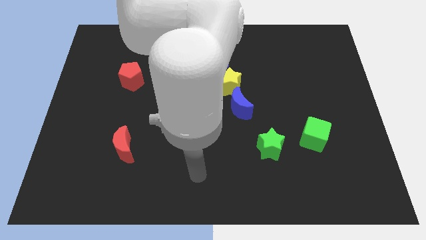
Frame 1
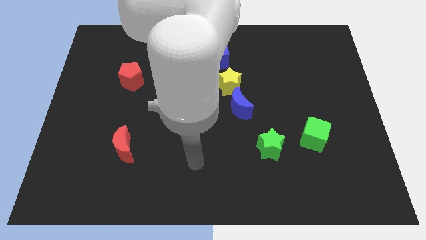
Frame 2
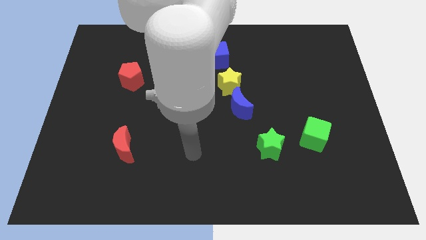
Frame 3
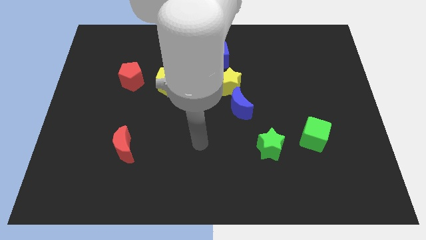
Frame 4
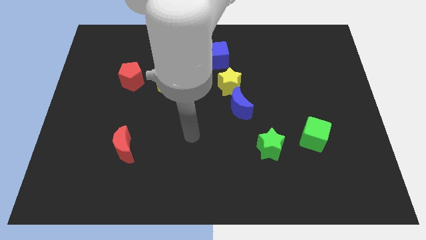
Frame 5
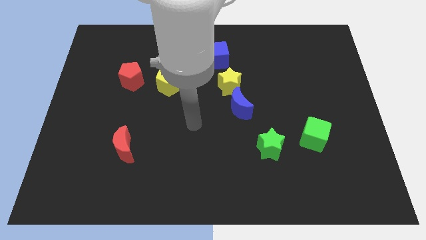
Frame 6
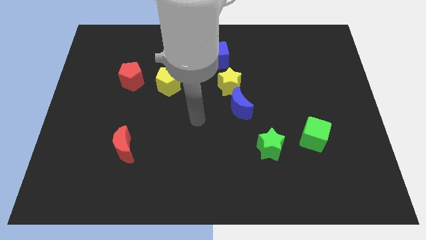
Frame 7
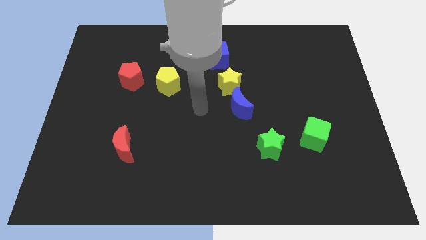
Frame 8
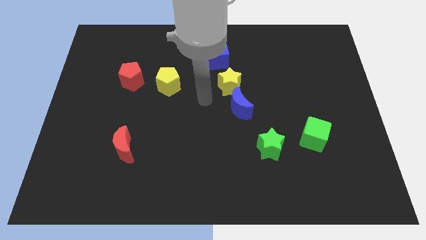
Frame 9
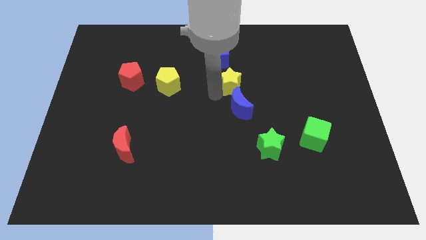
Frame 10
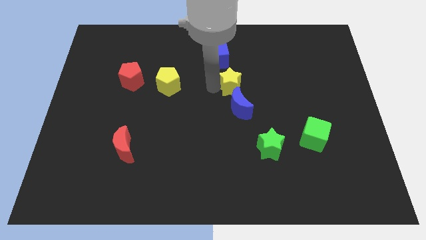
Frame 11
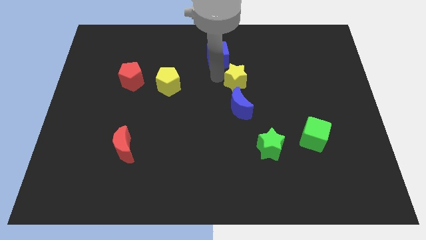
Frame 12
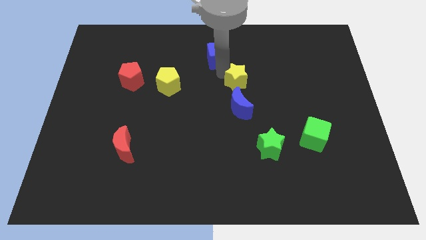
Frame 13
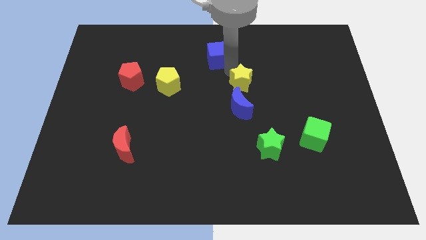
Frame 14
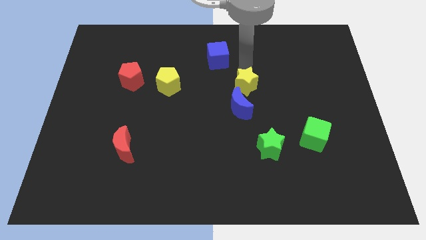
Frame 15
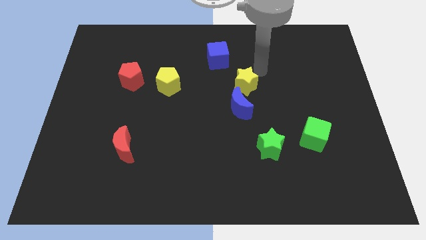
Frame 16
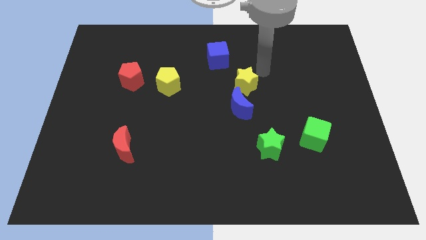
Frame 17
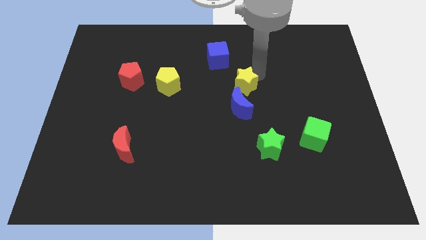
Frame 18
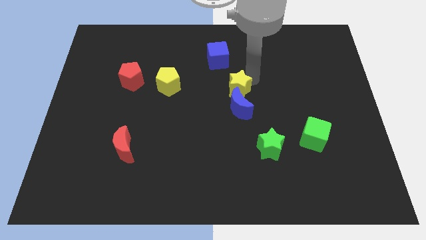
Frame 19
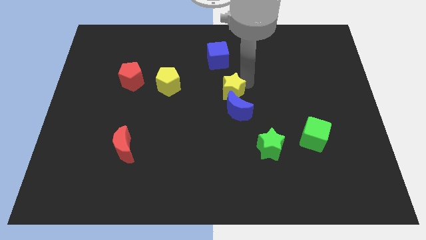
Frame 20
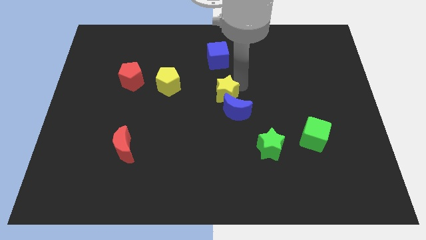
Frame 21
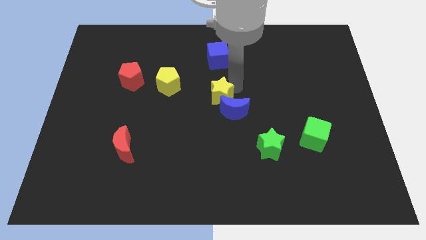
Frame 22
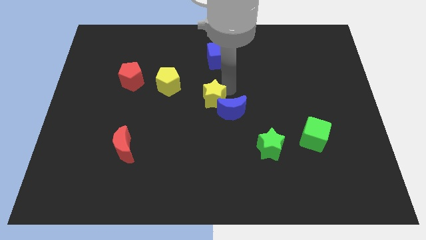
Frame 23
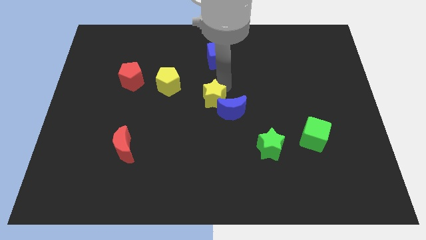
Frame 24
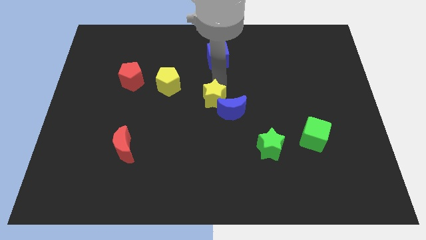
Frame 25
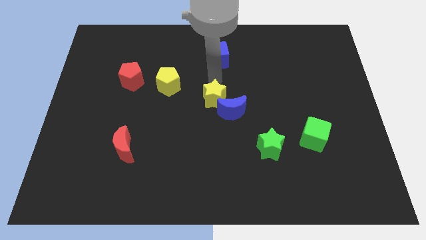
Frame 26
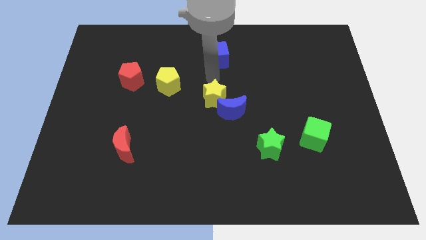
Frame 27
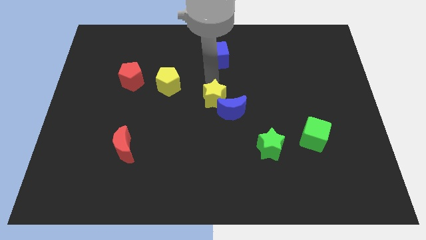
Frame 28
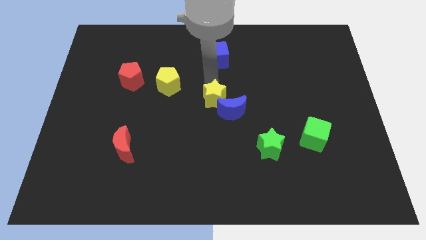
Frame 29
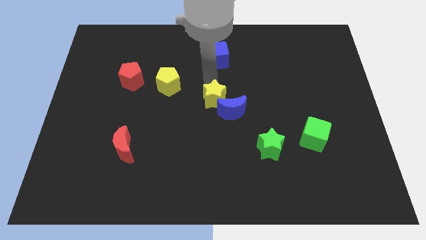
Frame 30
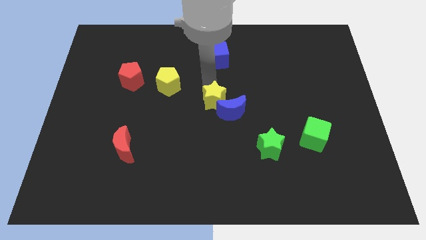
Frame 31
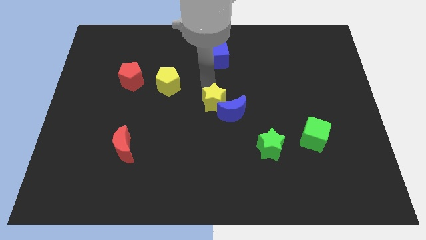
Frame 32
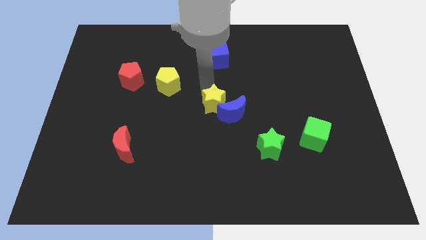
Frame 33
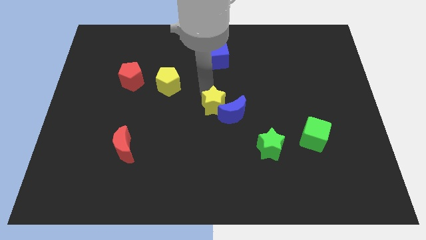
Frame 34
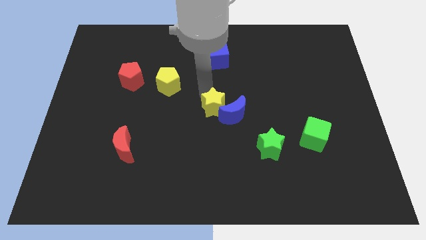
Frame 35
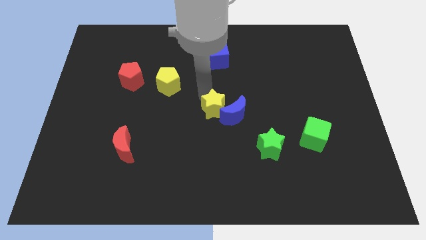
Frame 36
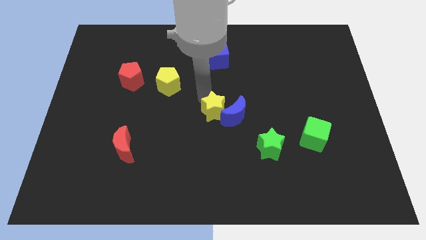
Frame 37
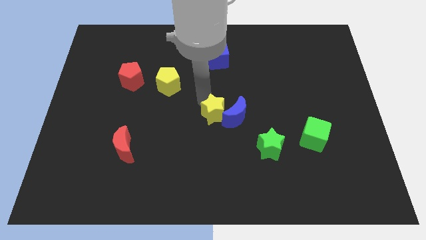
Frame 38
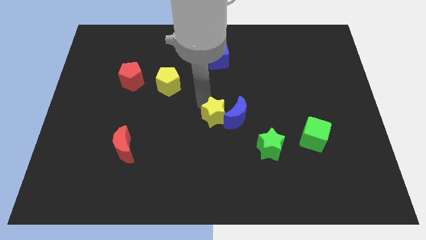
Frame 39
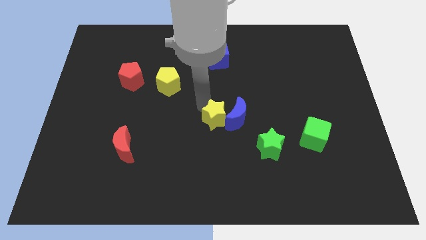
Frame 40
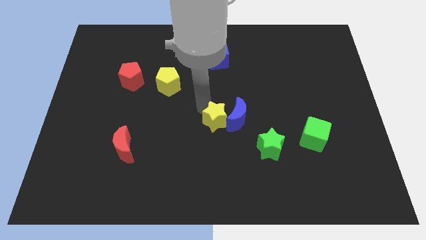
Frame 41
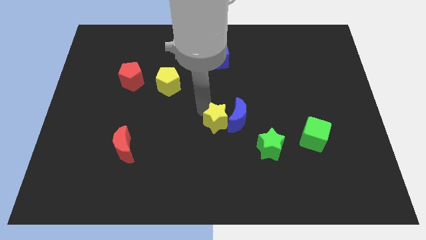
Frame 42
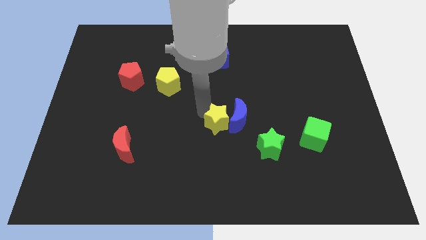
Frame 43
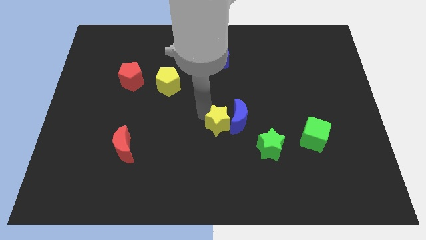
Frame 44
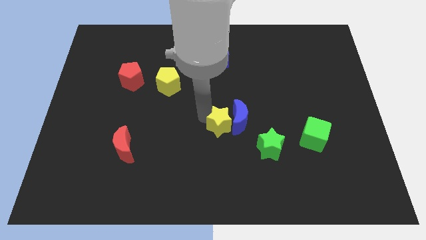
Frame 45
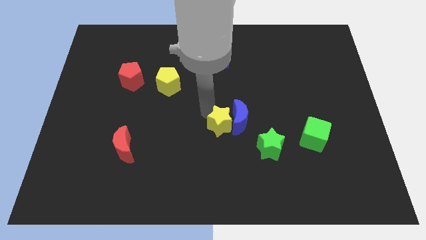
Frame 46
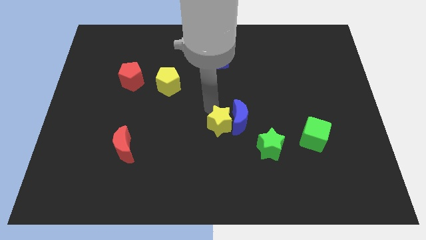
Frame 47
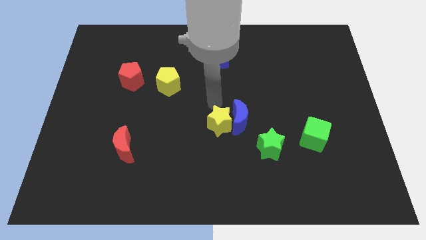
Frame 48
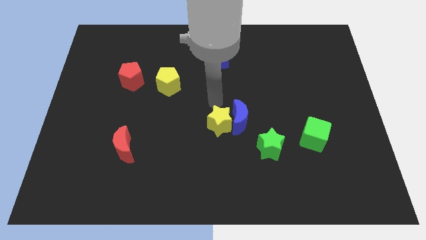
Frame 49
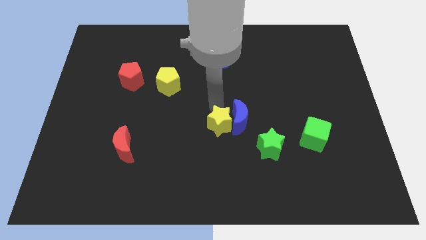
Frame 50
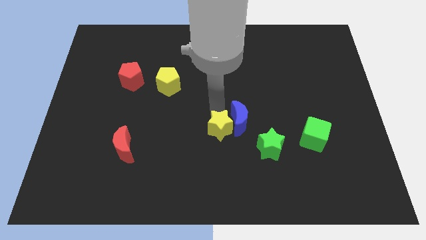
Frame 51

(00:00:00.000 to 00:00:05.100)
slide the yellow star to the left of the green star

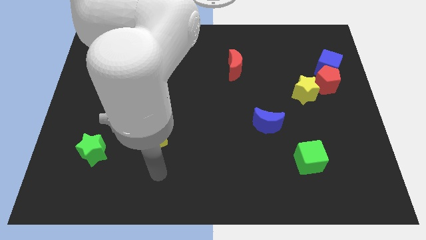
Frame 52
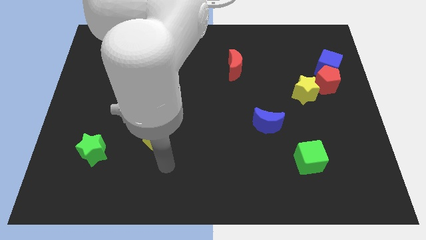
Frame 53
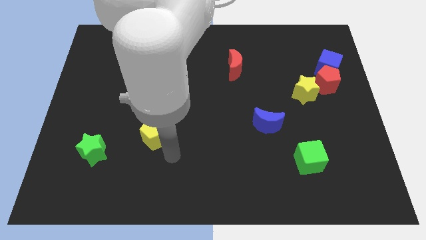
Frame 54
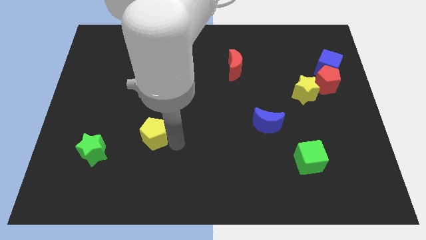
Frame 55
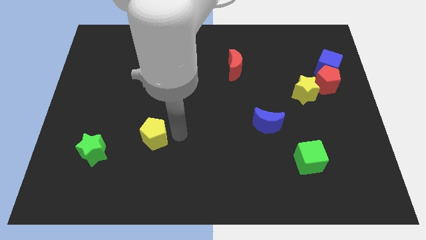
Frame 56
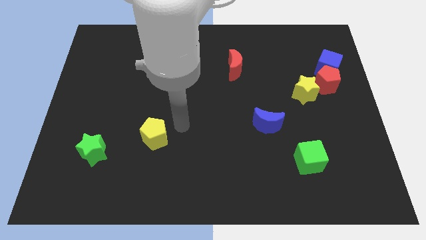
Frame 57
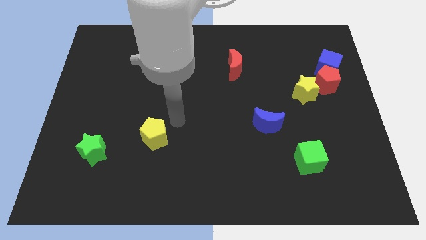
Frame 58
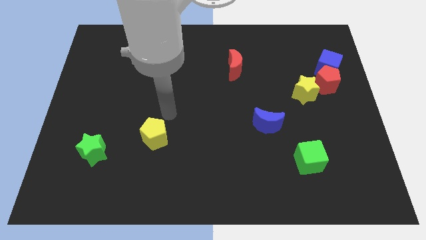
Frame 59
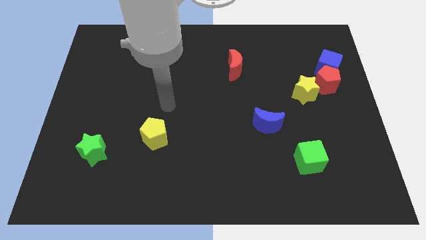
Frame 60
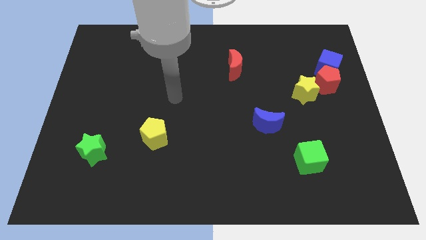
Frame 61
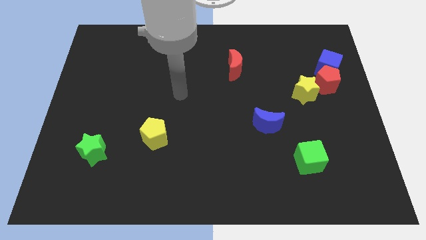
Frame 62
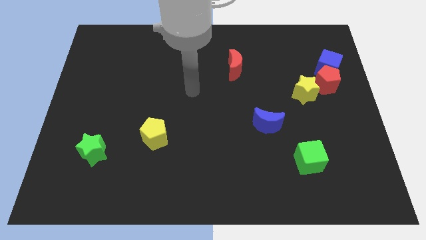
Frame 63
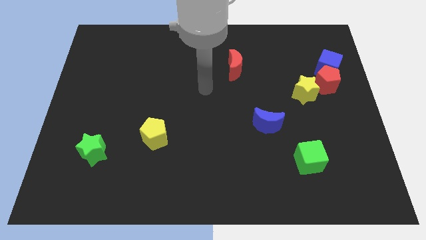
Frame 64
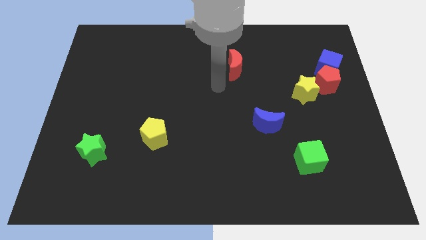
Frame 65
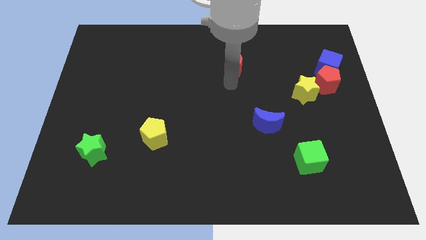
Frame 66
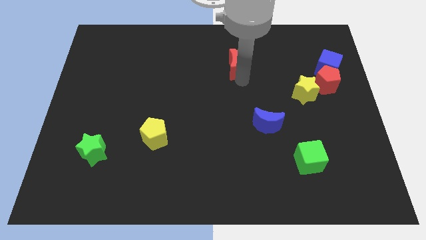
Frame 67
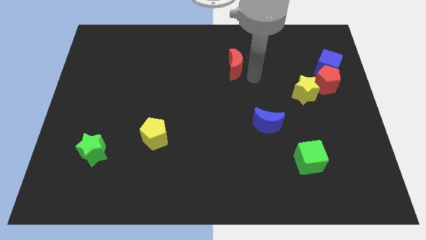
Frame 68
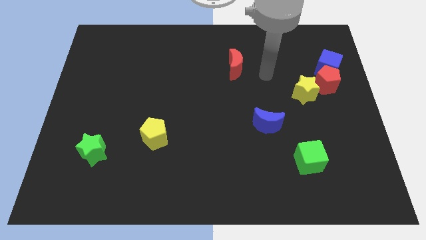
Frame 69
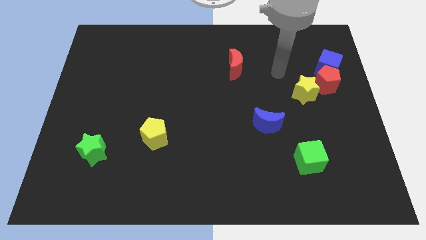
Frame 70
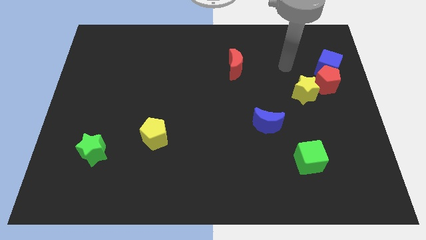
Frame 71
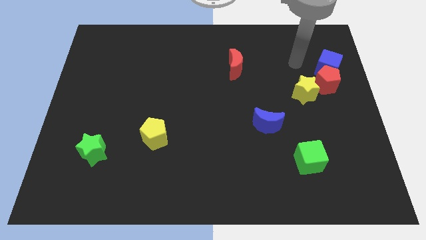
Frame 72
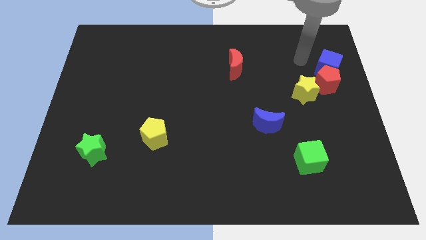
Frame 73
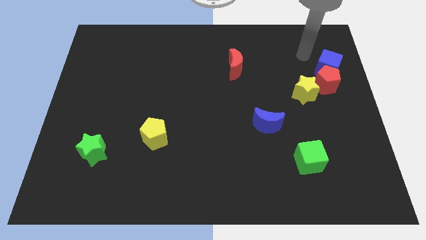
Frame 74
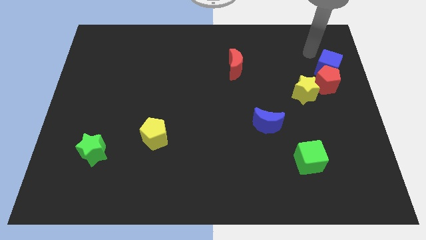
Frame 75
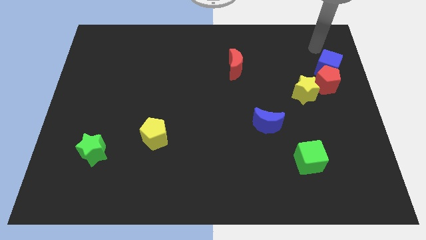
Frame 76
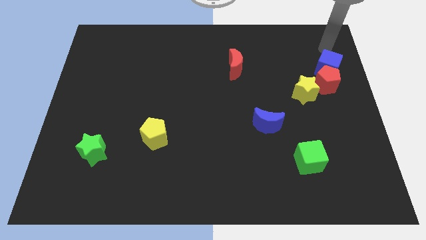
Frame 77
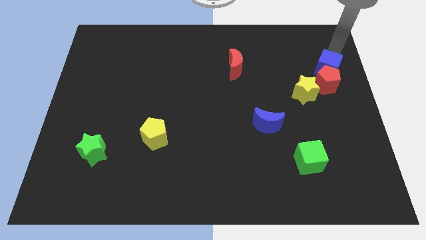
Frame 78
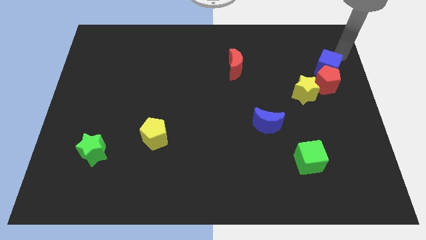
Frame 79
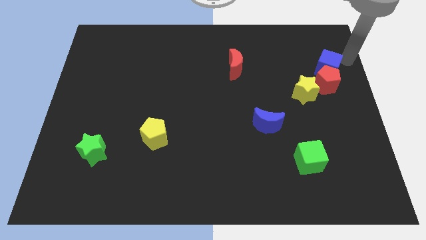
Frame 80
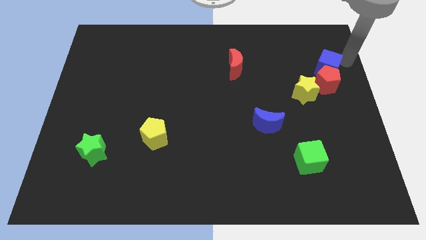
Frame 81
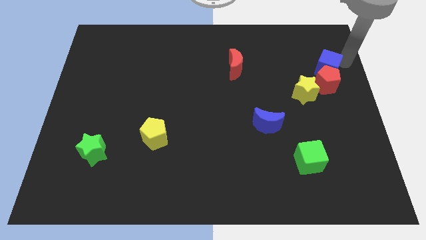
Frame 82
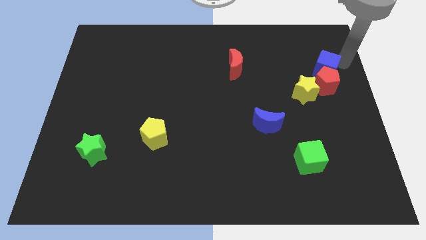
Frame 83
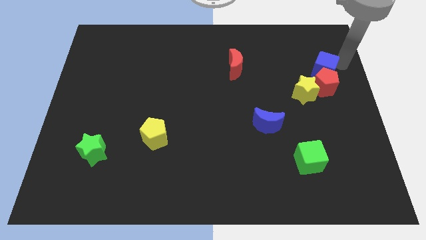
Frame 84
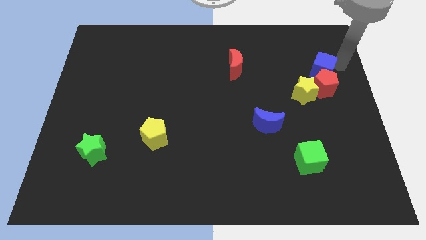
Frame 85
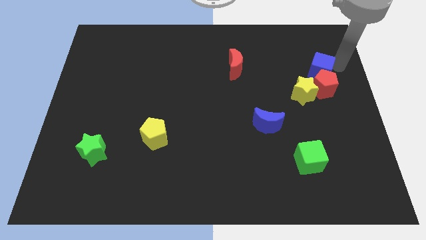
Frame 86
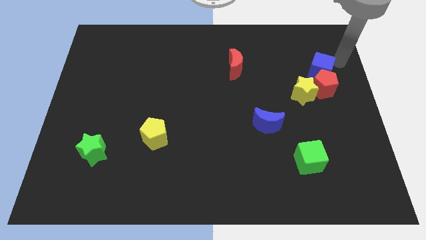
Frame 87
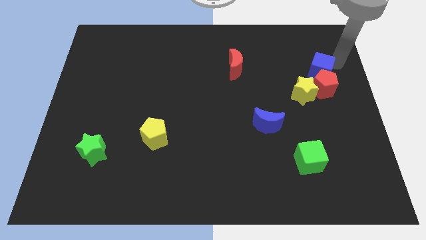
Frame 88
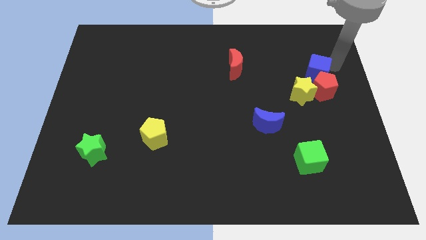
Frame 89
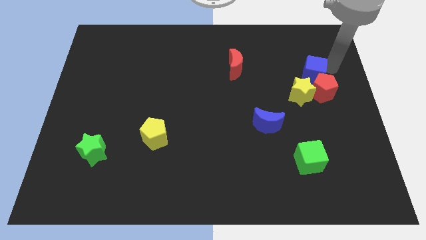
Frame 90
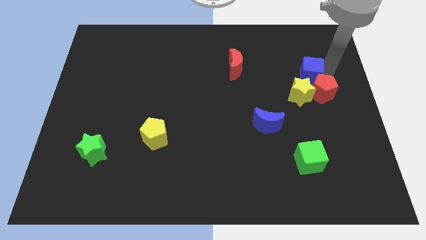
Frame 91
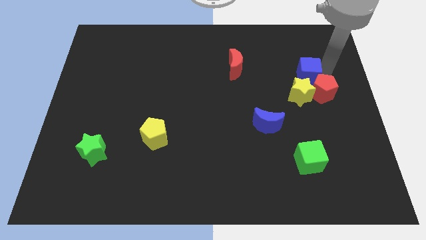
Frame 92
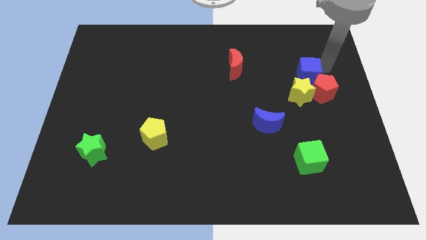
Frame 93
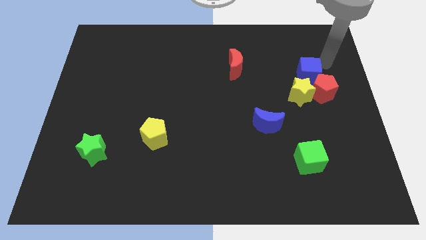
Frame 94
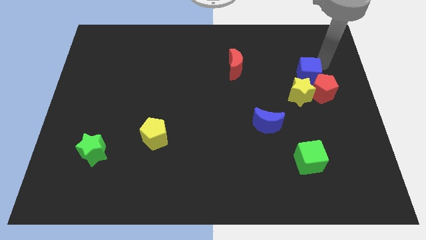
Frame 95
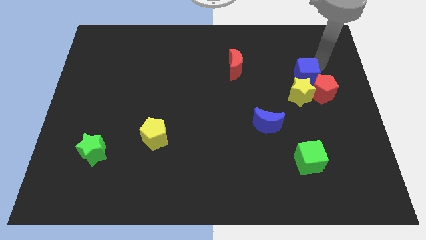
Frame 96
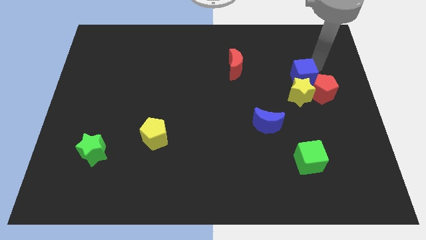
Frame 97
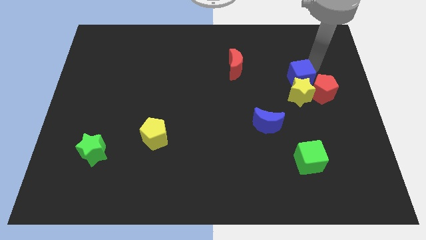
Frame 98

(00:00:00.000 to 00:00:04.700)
move the blue cube to the left side of the red pentagon
